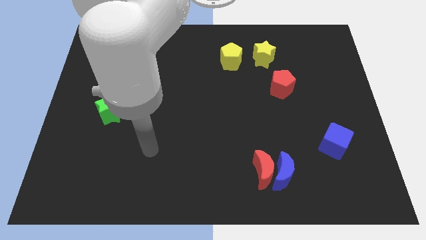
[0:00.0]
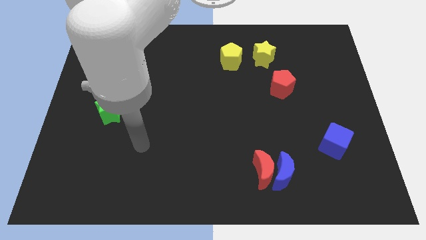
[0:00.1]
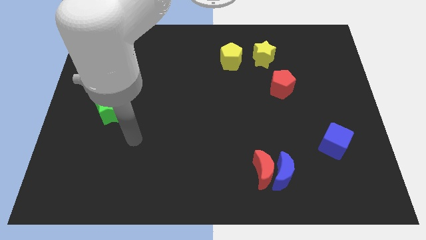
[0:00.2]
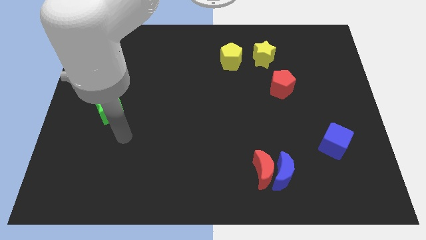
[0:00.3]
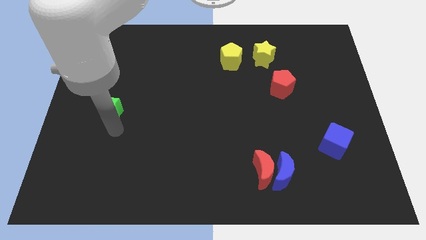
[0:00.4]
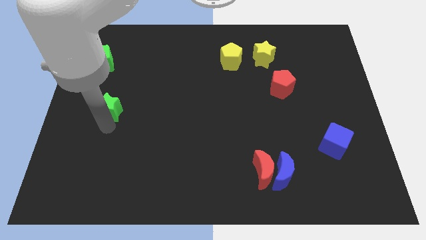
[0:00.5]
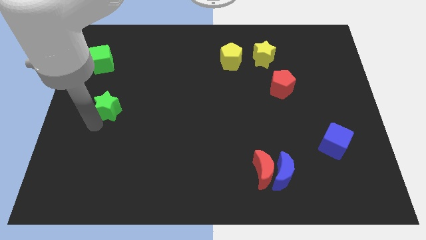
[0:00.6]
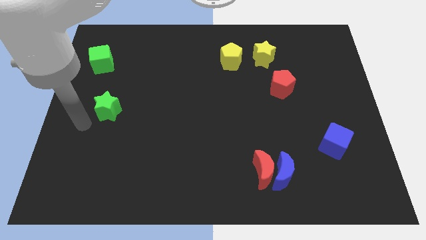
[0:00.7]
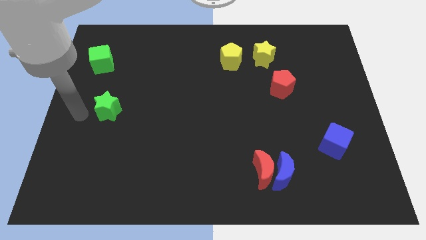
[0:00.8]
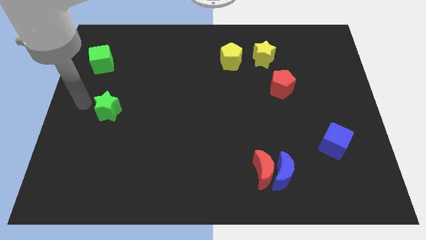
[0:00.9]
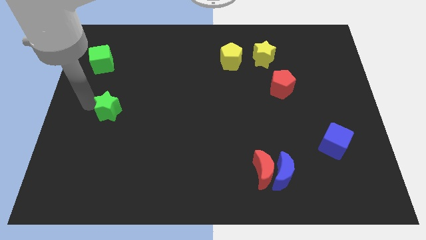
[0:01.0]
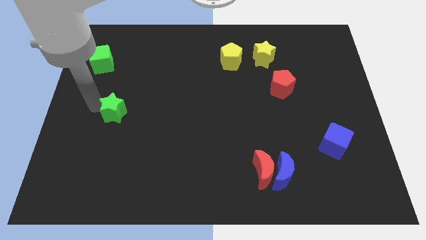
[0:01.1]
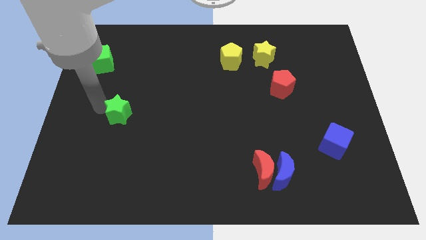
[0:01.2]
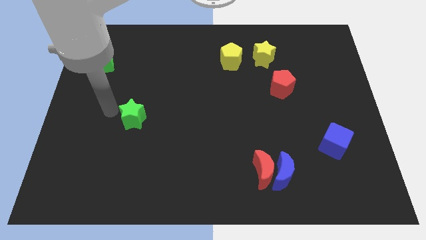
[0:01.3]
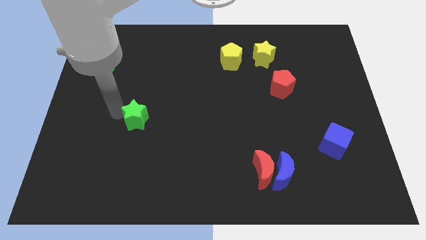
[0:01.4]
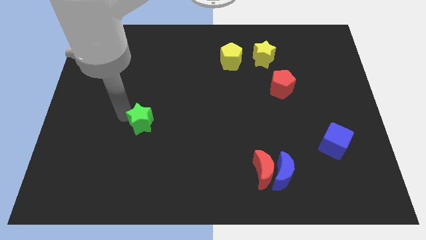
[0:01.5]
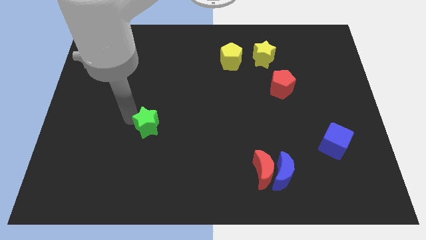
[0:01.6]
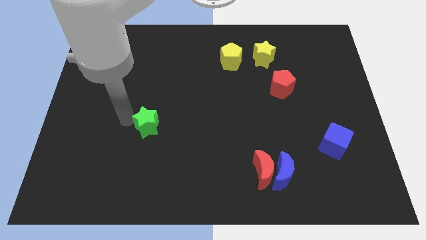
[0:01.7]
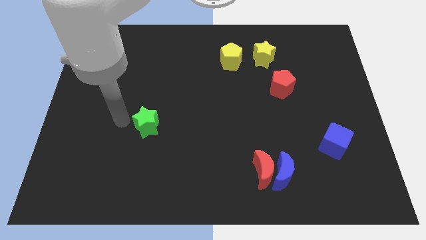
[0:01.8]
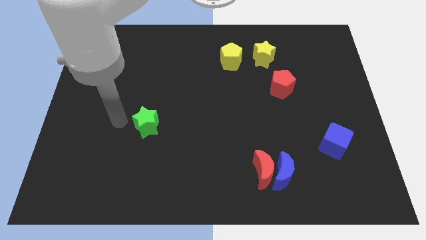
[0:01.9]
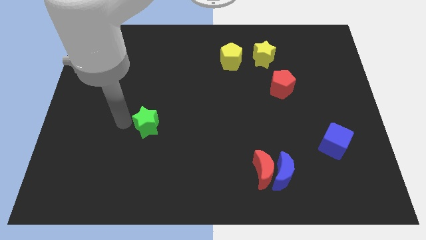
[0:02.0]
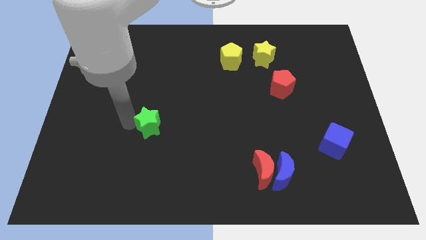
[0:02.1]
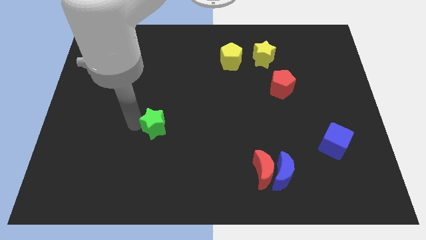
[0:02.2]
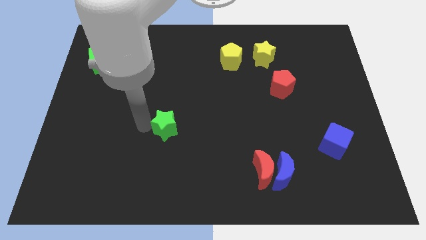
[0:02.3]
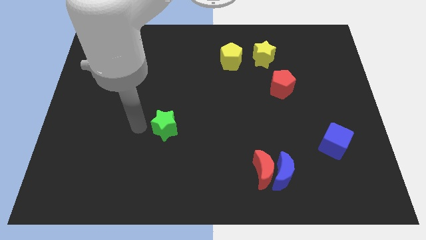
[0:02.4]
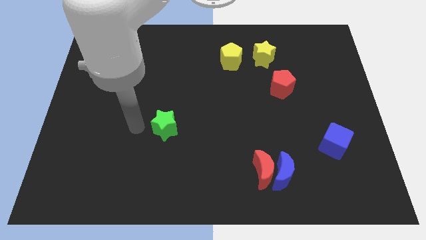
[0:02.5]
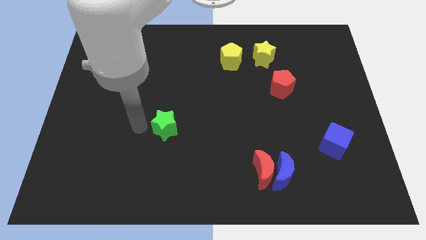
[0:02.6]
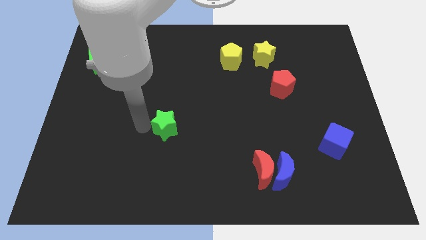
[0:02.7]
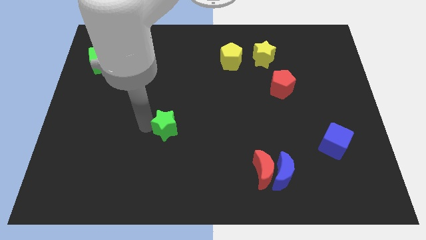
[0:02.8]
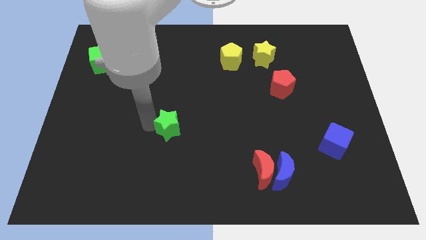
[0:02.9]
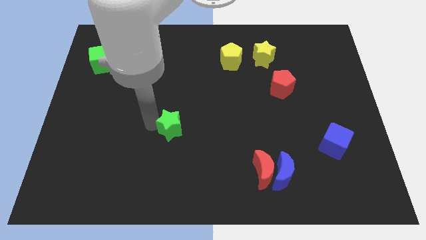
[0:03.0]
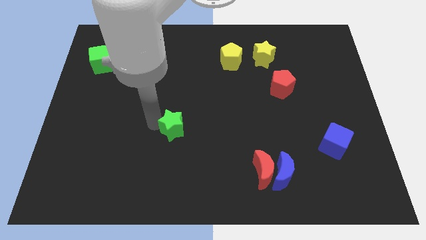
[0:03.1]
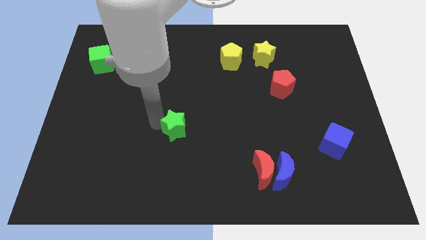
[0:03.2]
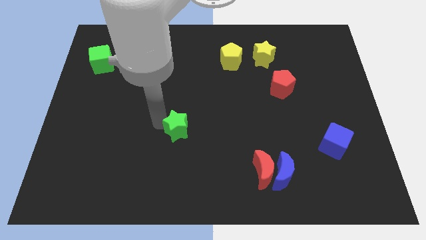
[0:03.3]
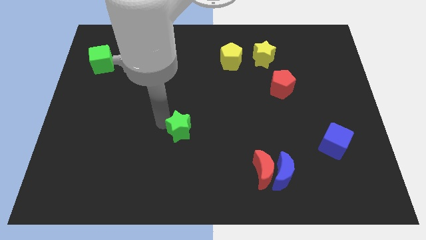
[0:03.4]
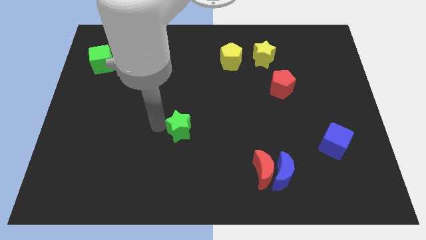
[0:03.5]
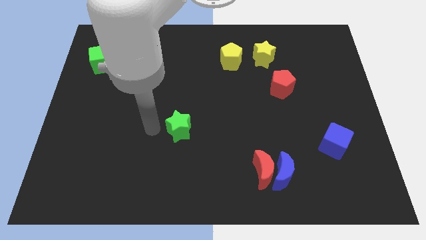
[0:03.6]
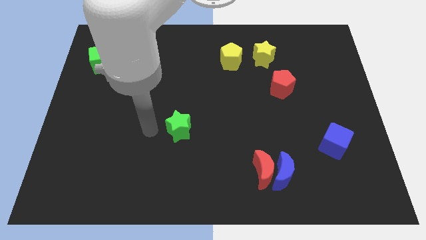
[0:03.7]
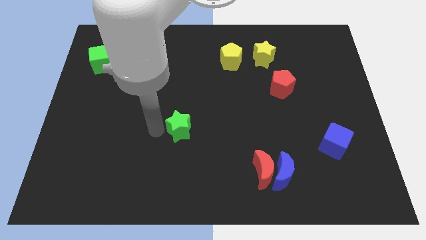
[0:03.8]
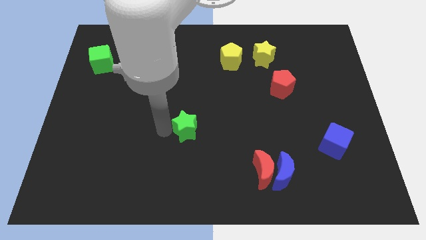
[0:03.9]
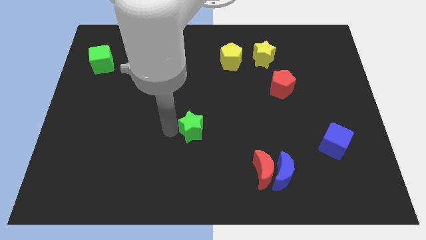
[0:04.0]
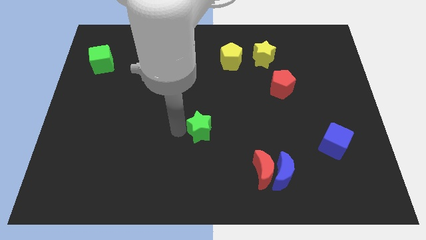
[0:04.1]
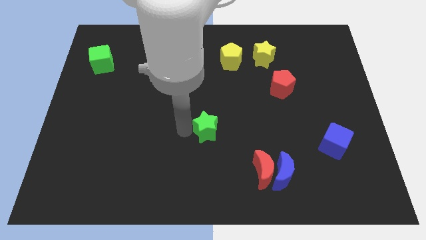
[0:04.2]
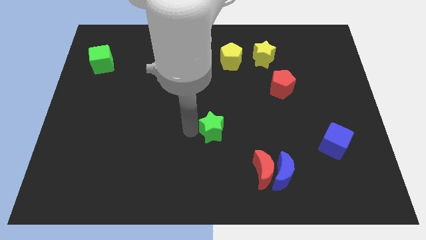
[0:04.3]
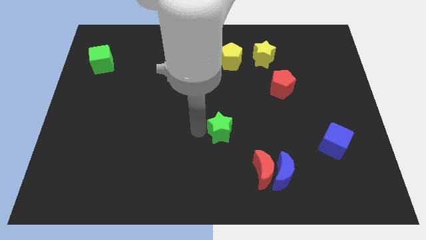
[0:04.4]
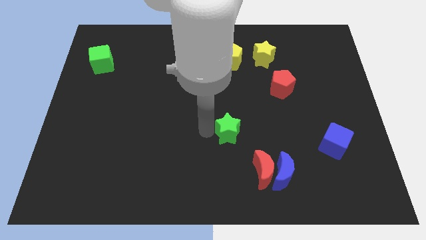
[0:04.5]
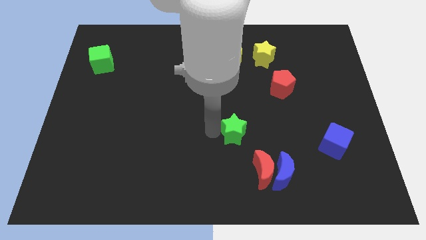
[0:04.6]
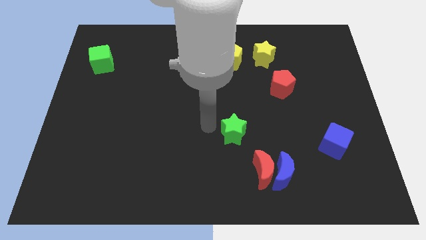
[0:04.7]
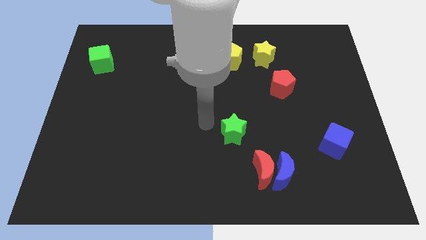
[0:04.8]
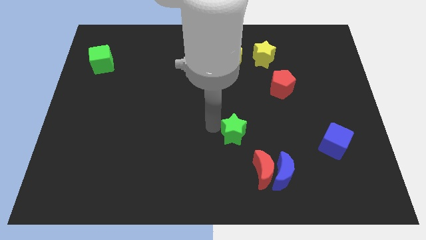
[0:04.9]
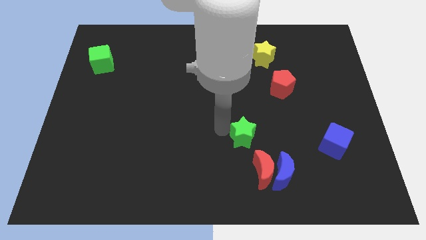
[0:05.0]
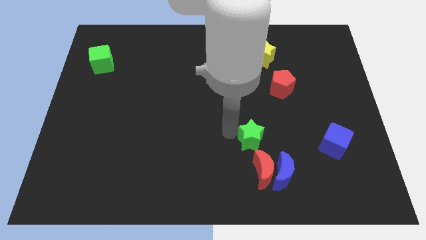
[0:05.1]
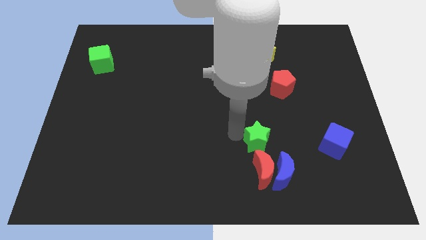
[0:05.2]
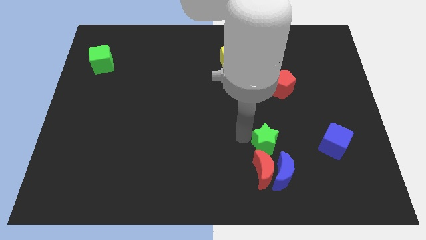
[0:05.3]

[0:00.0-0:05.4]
slide the green star to the top right side of the red moon

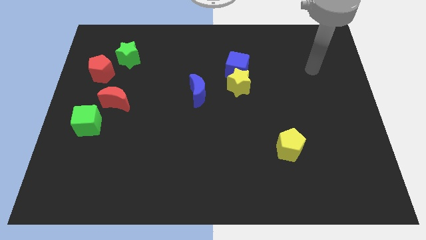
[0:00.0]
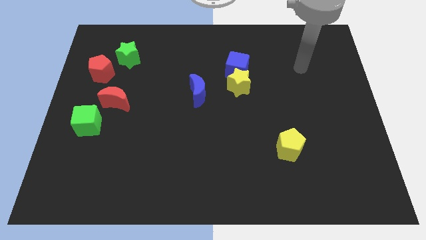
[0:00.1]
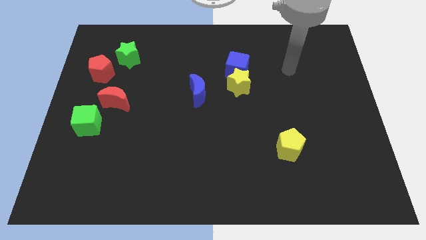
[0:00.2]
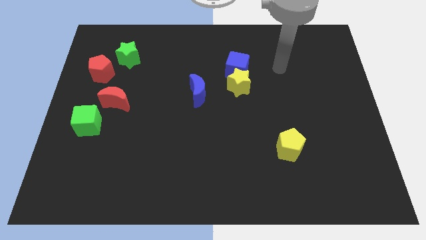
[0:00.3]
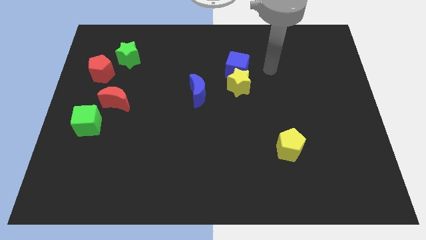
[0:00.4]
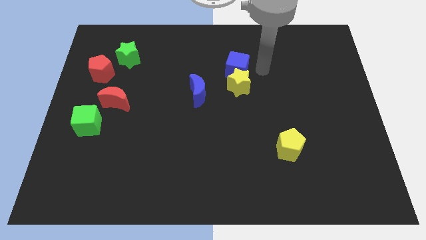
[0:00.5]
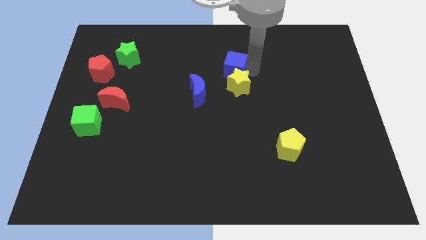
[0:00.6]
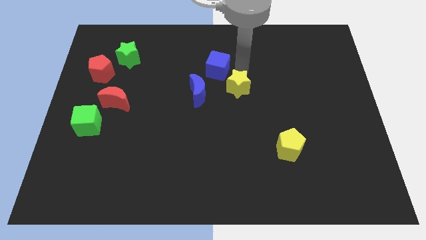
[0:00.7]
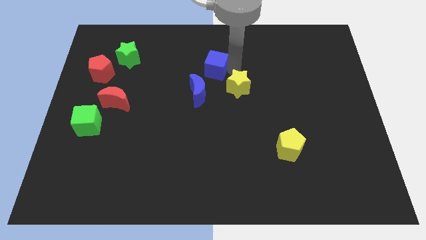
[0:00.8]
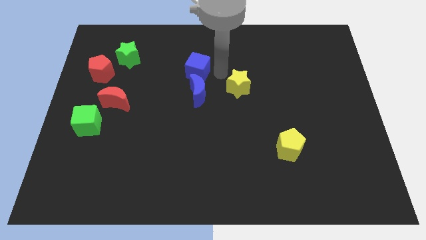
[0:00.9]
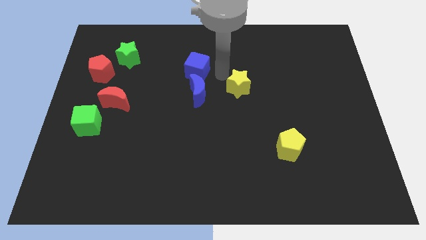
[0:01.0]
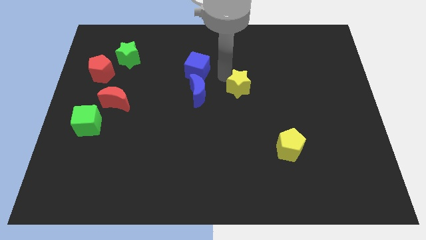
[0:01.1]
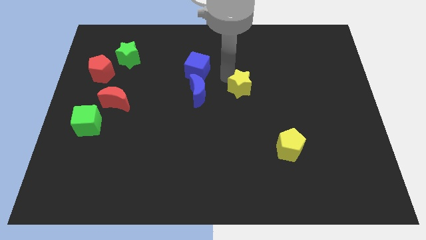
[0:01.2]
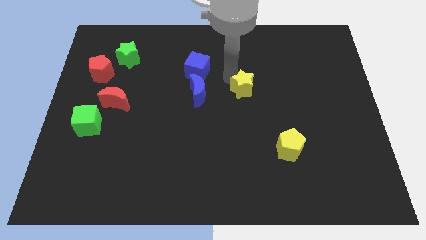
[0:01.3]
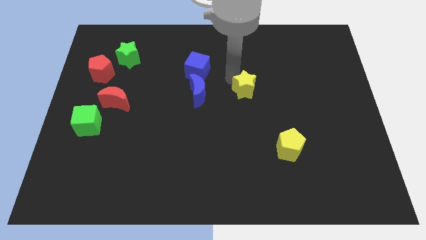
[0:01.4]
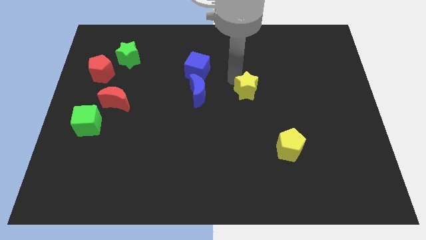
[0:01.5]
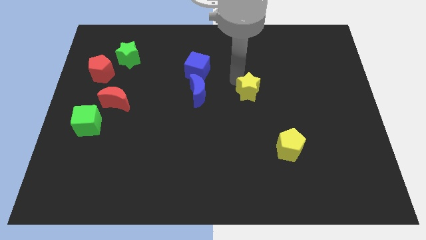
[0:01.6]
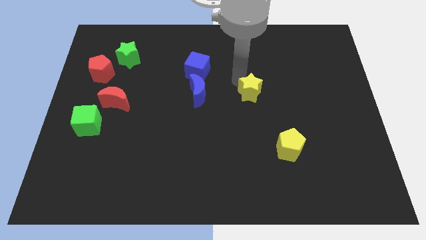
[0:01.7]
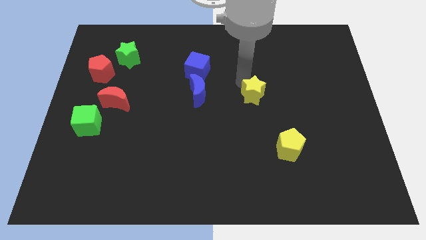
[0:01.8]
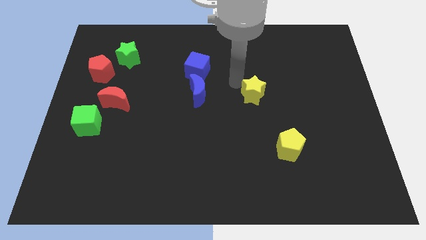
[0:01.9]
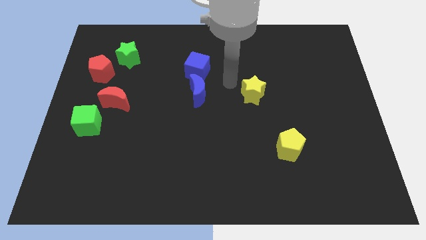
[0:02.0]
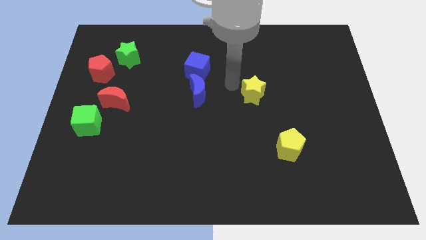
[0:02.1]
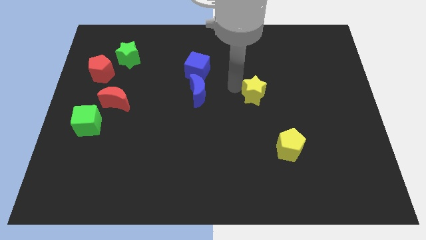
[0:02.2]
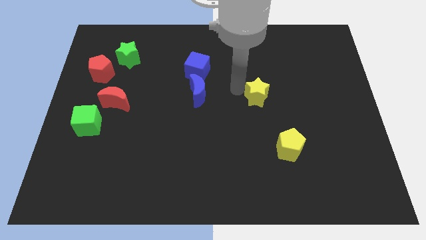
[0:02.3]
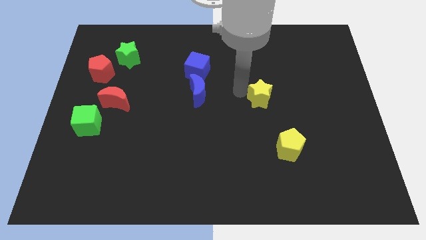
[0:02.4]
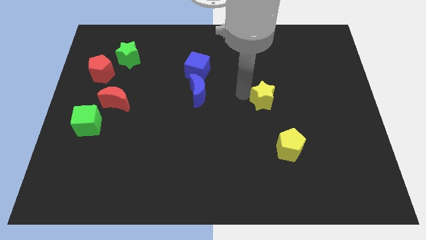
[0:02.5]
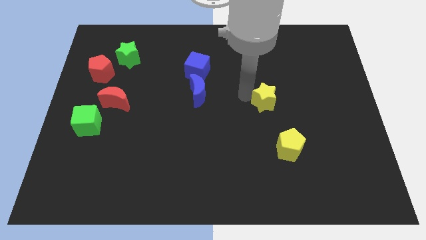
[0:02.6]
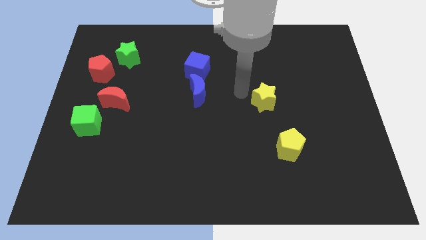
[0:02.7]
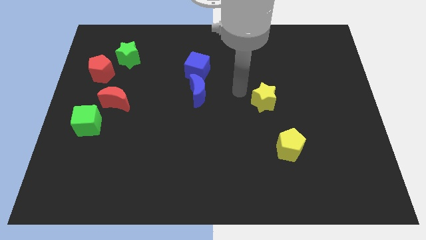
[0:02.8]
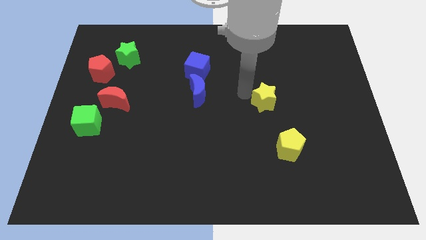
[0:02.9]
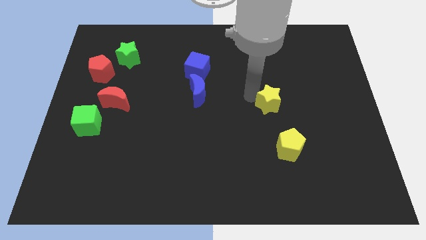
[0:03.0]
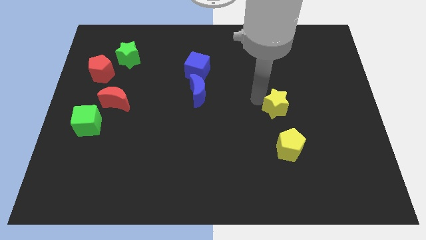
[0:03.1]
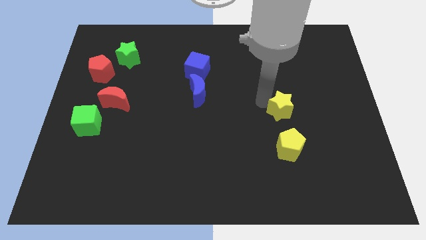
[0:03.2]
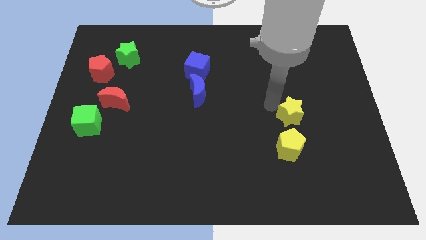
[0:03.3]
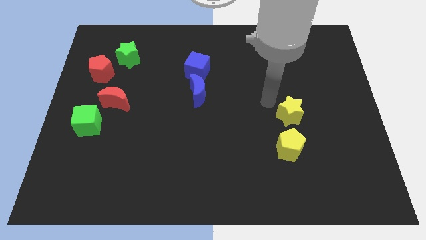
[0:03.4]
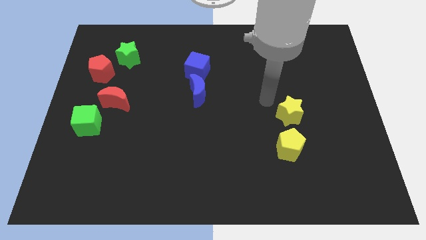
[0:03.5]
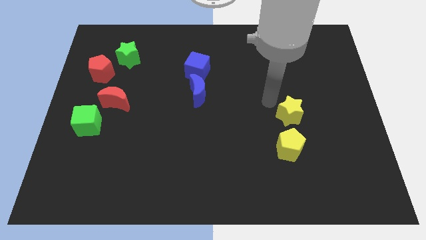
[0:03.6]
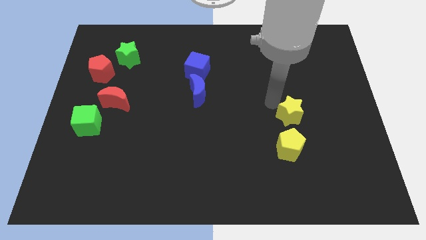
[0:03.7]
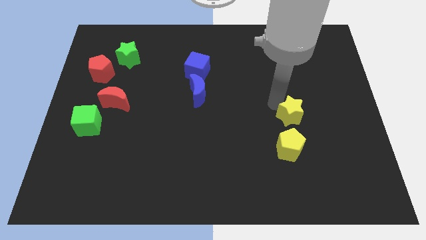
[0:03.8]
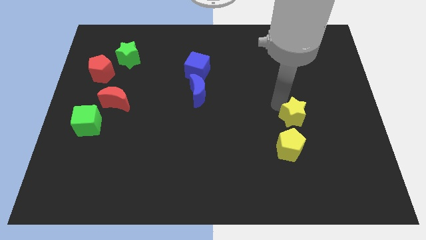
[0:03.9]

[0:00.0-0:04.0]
move the yellow star diagonally up and to the right of the yellow pentagon
